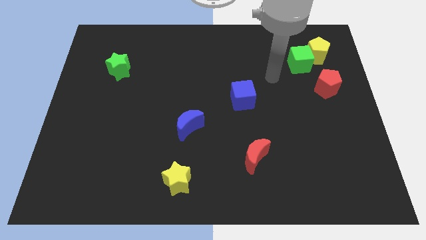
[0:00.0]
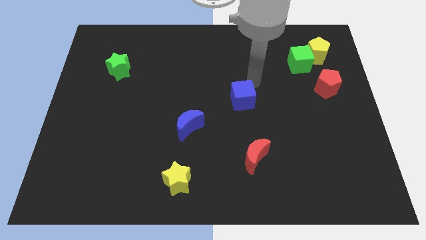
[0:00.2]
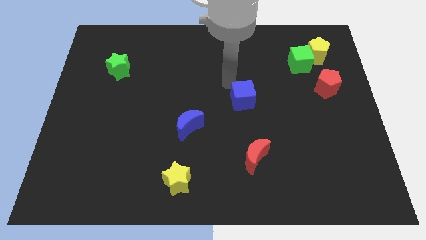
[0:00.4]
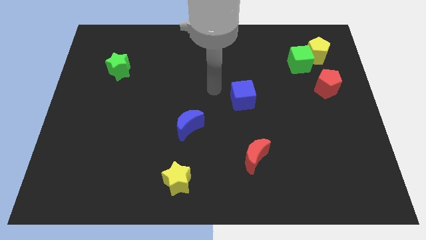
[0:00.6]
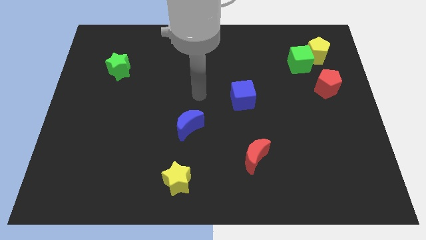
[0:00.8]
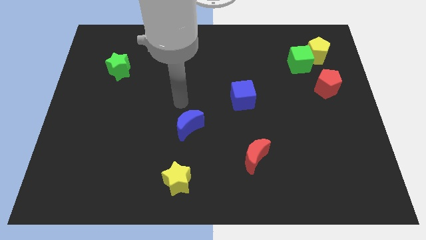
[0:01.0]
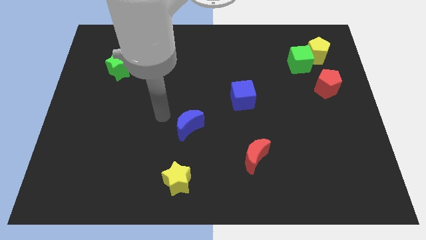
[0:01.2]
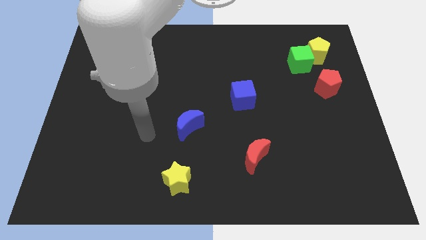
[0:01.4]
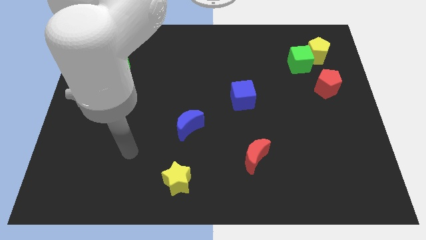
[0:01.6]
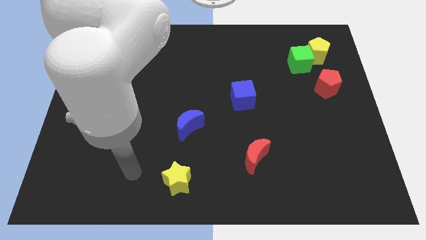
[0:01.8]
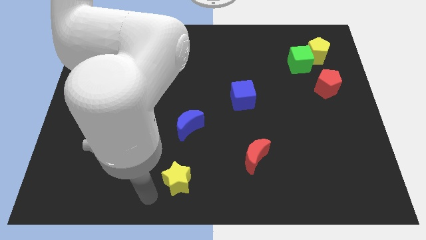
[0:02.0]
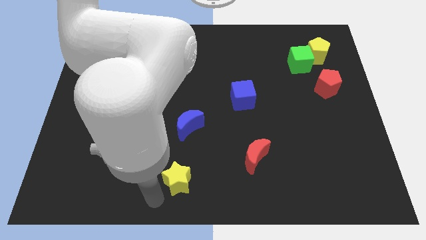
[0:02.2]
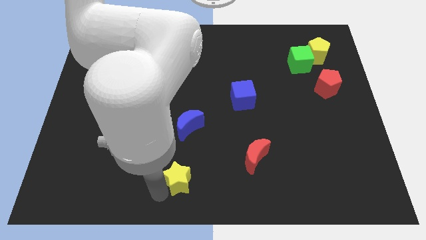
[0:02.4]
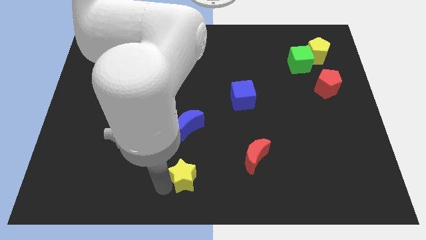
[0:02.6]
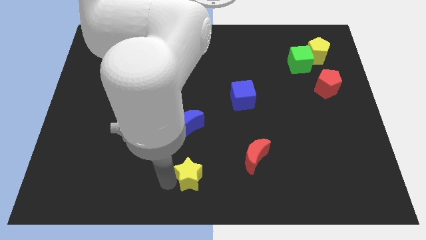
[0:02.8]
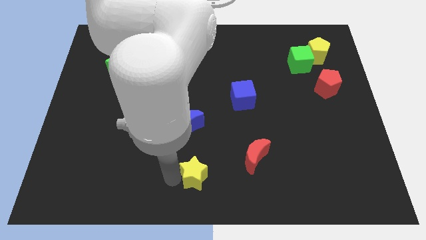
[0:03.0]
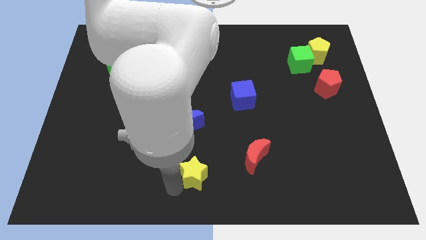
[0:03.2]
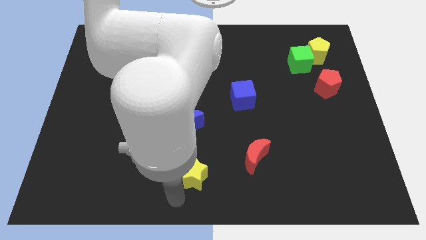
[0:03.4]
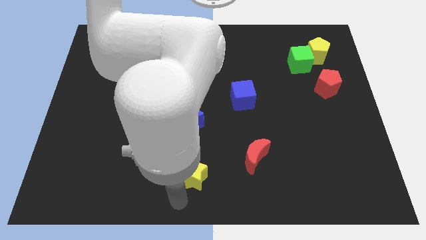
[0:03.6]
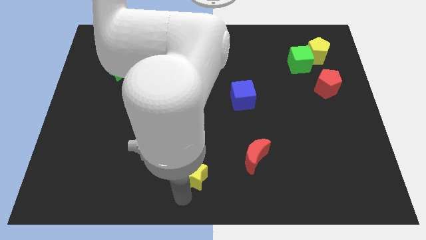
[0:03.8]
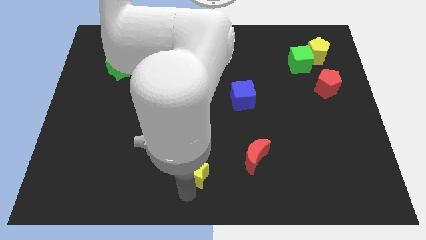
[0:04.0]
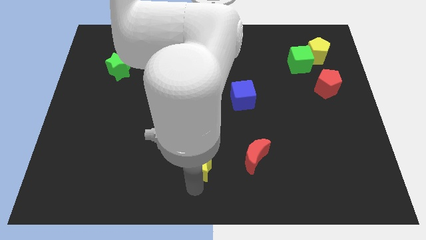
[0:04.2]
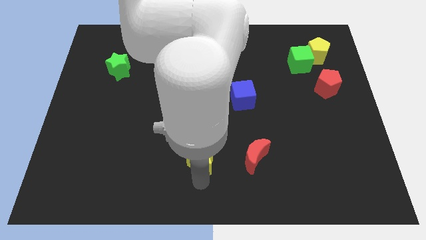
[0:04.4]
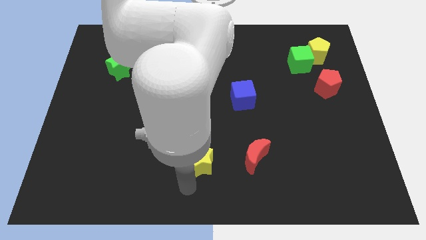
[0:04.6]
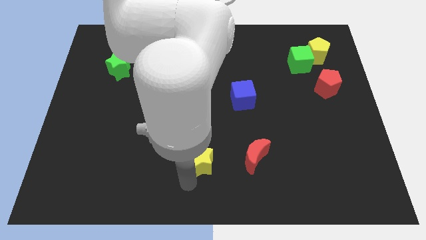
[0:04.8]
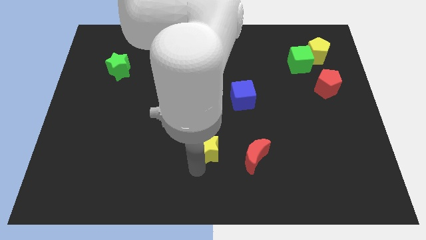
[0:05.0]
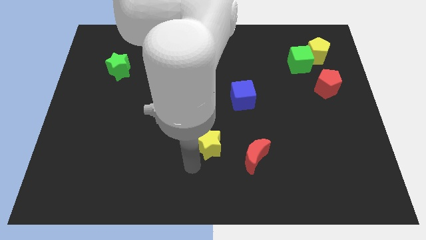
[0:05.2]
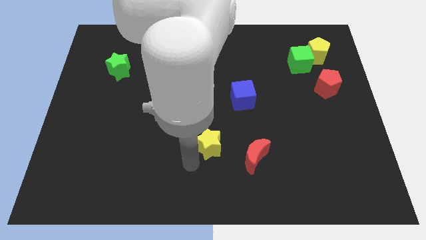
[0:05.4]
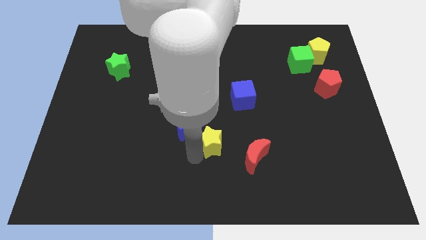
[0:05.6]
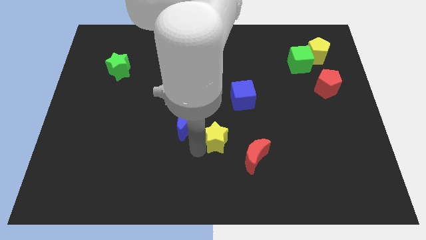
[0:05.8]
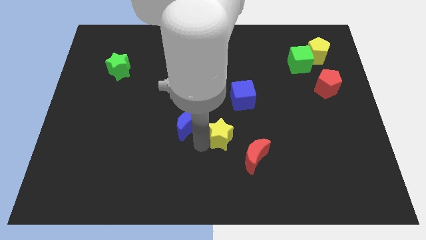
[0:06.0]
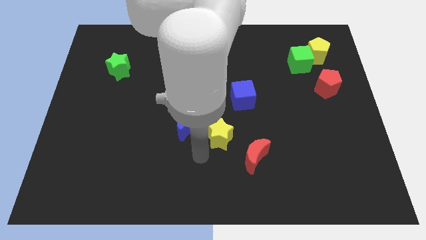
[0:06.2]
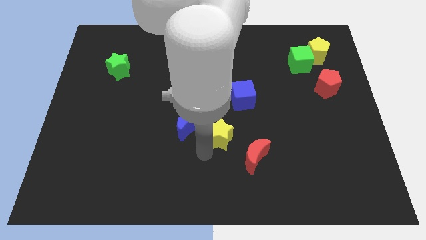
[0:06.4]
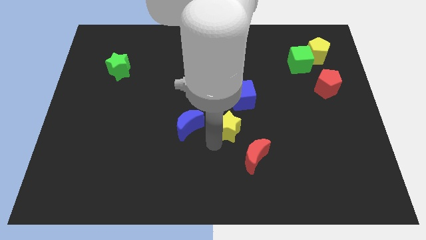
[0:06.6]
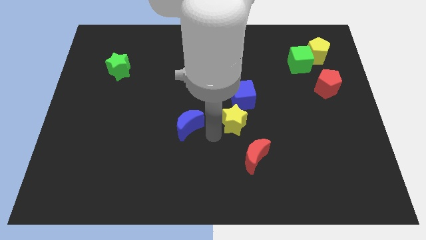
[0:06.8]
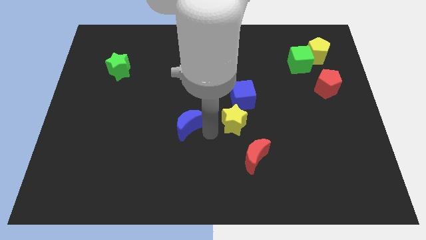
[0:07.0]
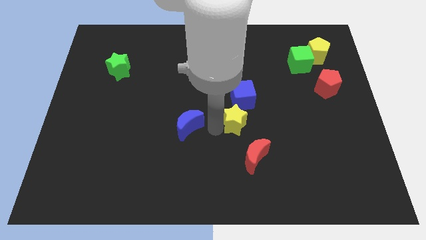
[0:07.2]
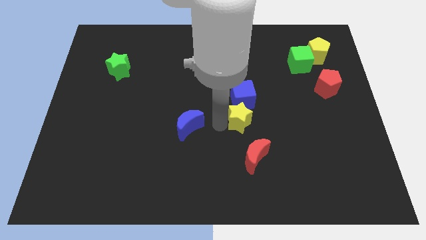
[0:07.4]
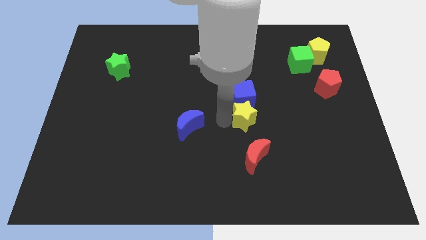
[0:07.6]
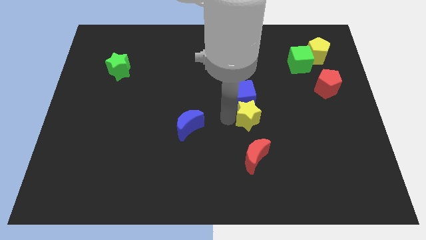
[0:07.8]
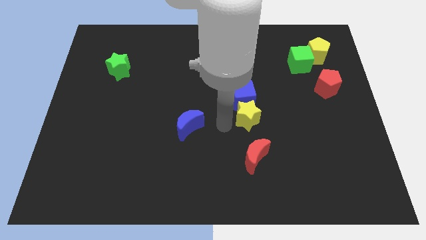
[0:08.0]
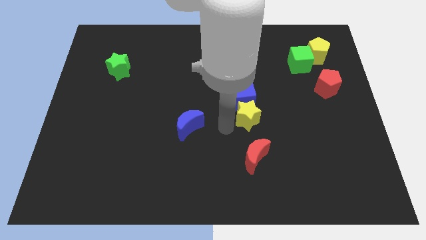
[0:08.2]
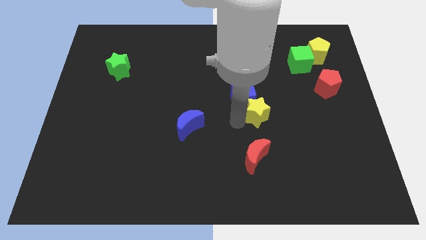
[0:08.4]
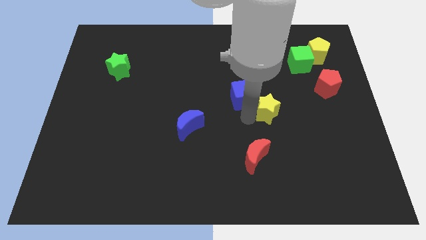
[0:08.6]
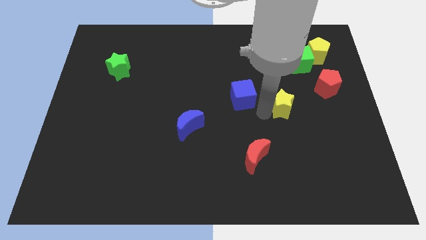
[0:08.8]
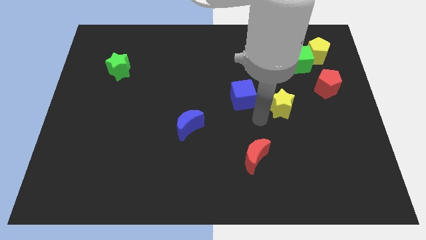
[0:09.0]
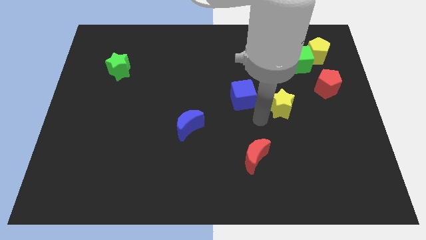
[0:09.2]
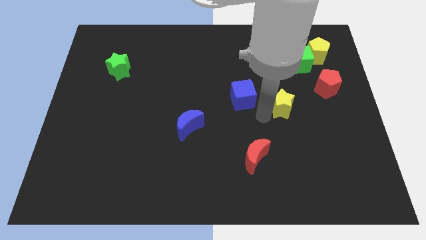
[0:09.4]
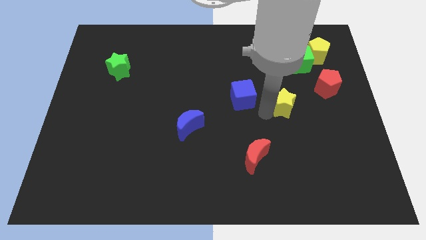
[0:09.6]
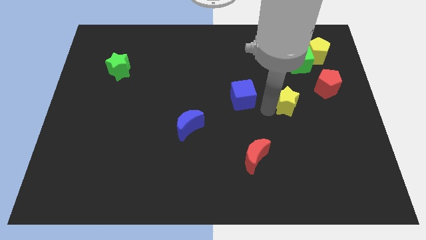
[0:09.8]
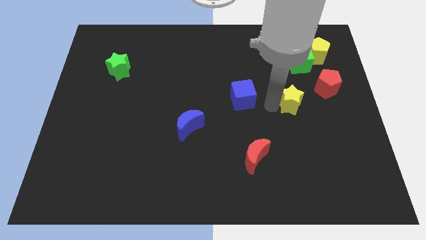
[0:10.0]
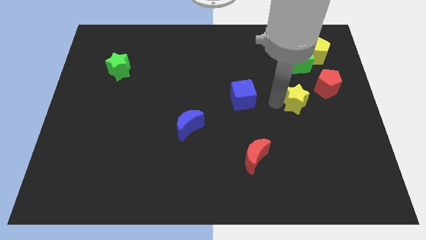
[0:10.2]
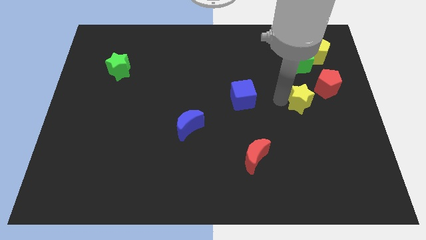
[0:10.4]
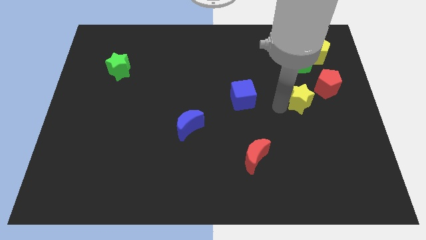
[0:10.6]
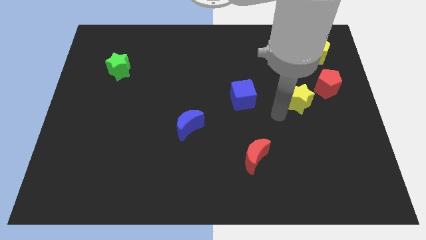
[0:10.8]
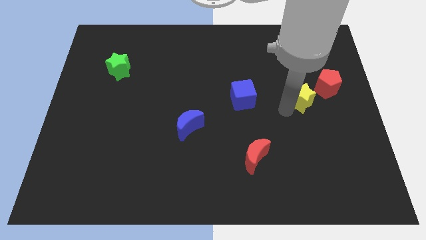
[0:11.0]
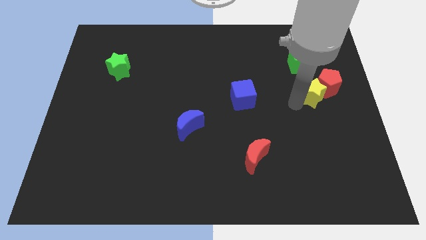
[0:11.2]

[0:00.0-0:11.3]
slide the yellow star to the red pentagon

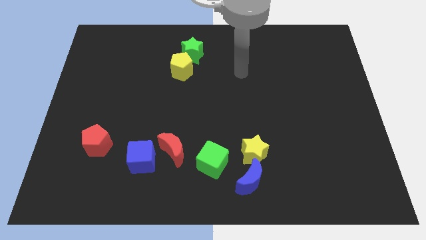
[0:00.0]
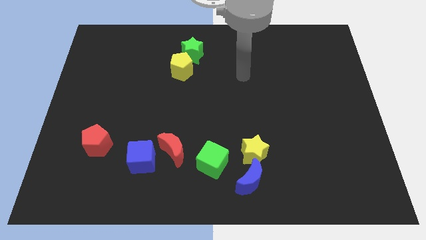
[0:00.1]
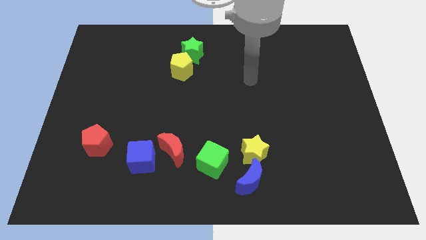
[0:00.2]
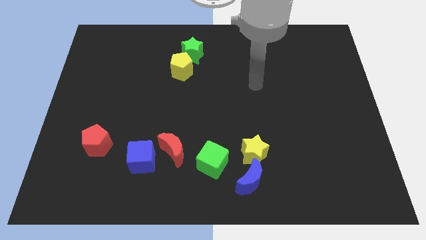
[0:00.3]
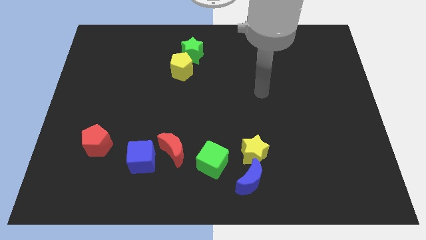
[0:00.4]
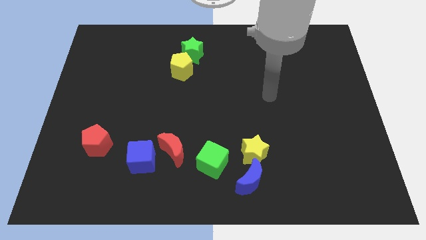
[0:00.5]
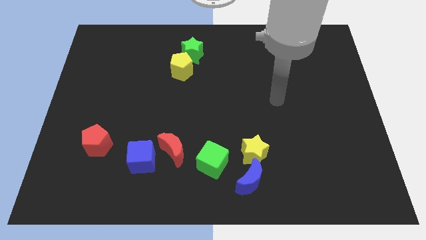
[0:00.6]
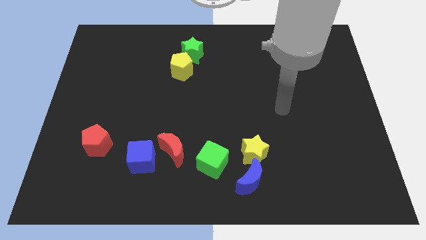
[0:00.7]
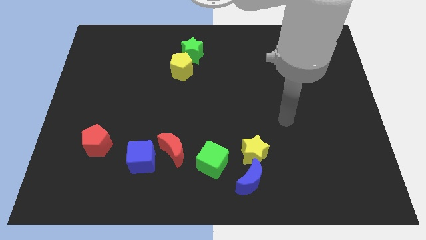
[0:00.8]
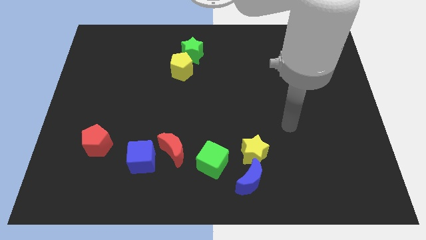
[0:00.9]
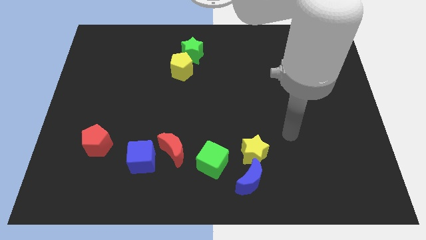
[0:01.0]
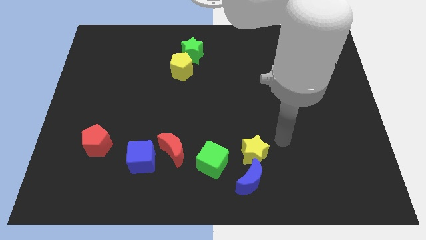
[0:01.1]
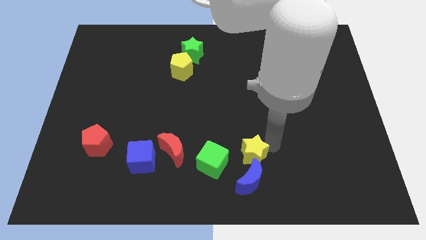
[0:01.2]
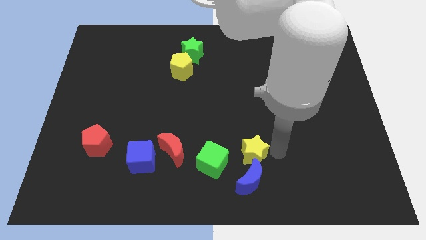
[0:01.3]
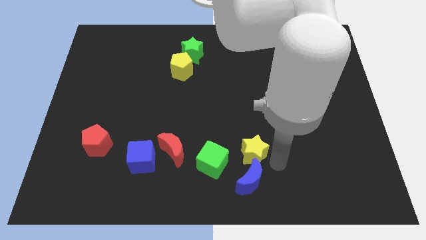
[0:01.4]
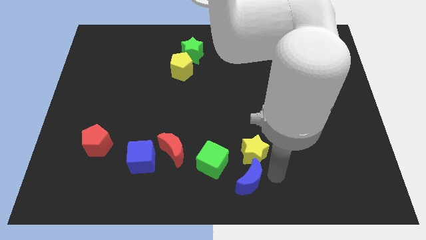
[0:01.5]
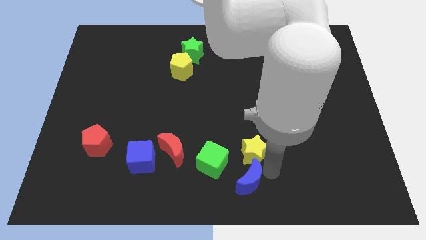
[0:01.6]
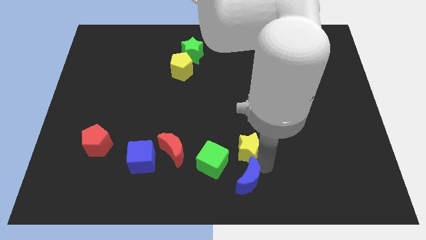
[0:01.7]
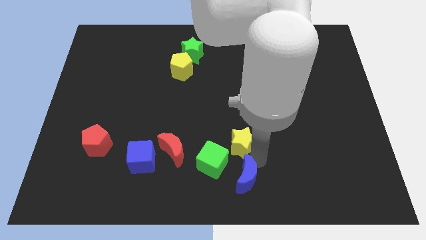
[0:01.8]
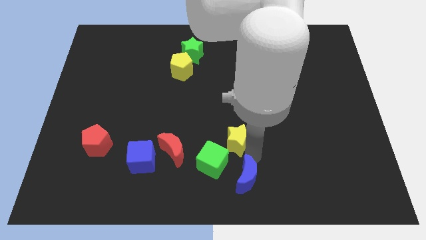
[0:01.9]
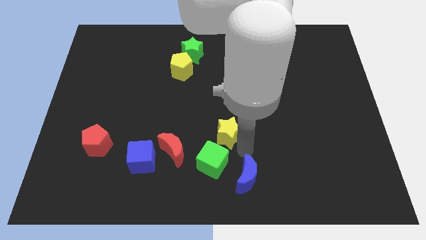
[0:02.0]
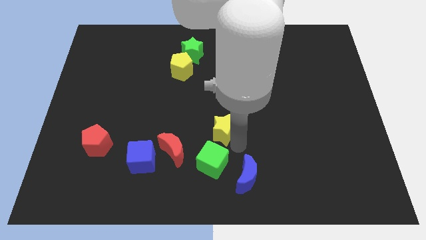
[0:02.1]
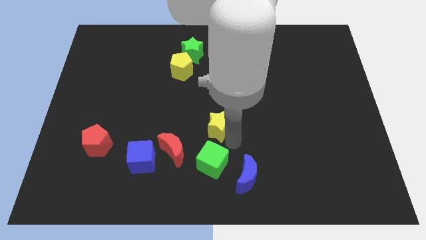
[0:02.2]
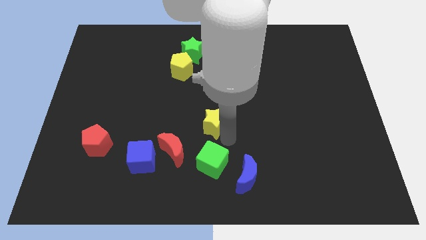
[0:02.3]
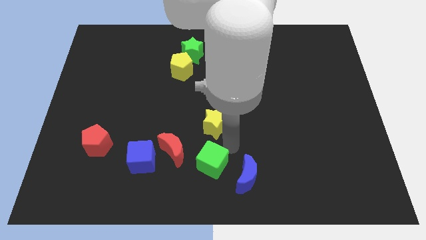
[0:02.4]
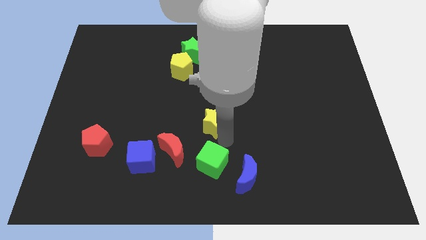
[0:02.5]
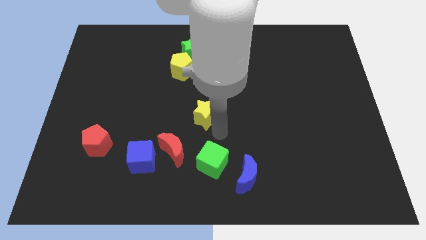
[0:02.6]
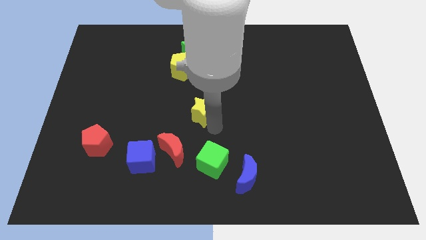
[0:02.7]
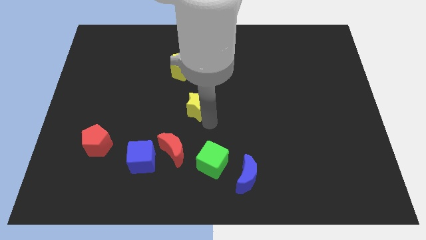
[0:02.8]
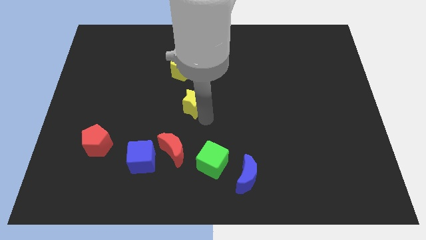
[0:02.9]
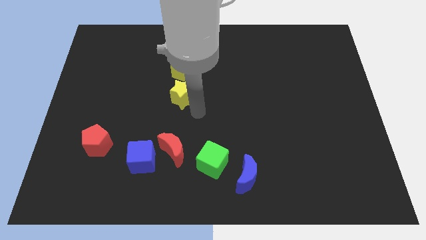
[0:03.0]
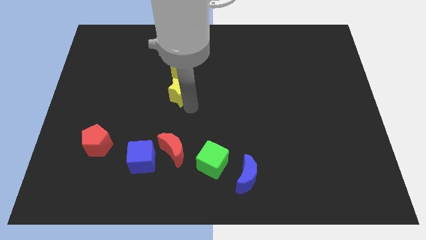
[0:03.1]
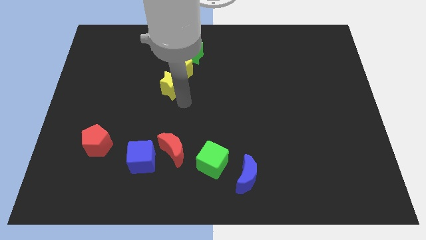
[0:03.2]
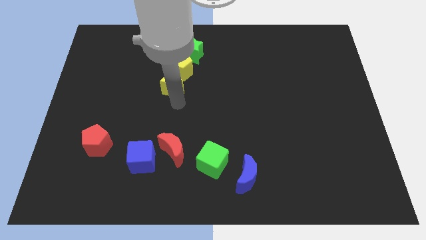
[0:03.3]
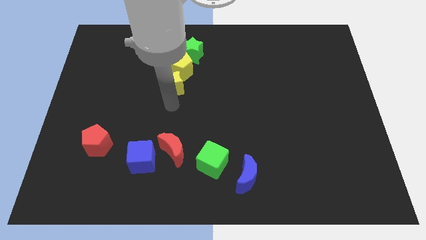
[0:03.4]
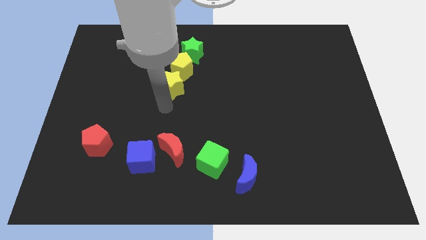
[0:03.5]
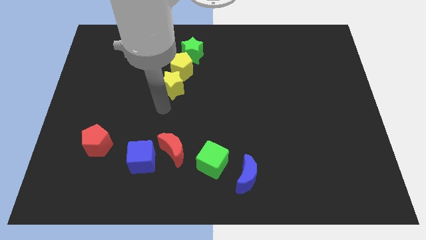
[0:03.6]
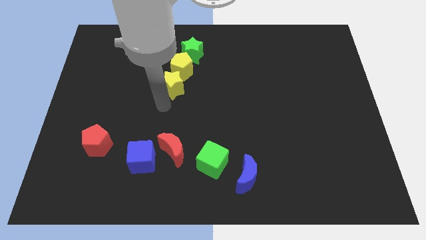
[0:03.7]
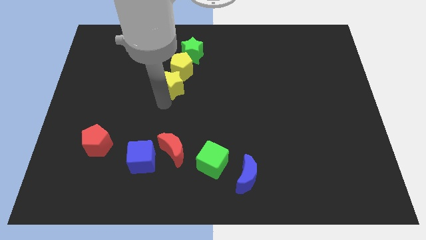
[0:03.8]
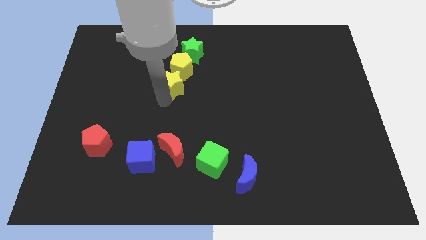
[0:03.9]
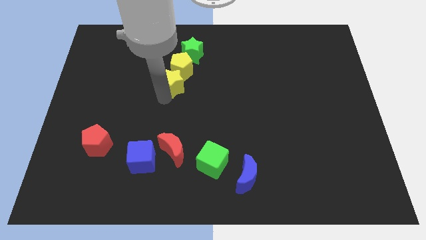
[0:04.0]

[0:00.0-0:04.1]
move the yellow star to the yellow pentagon
